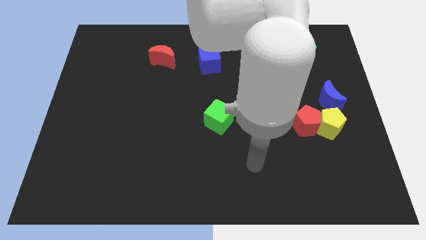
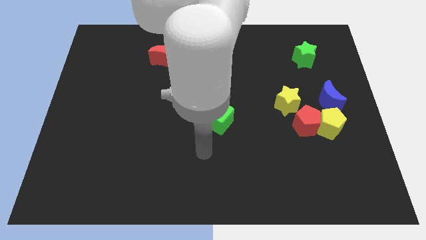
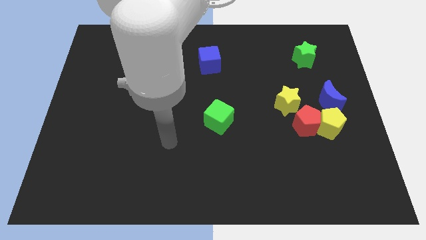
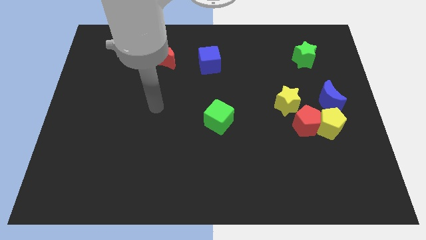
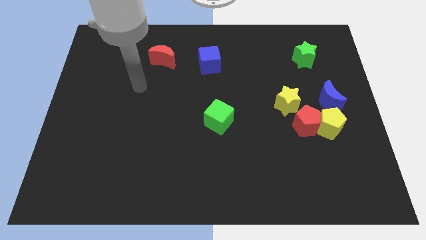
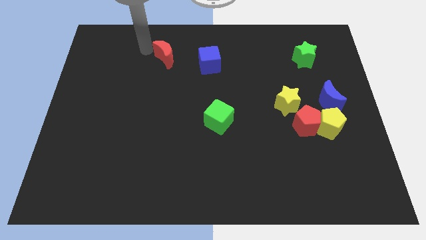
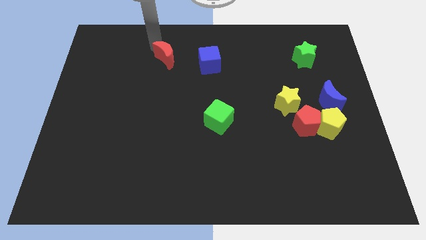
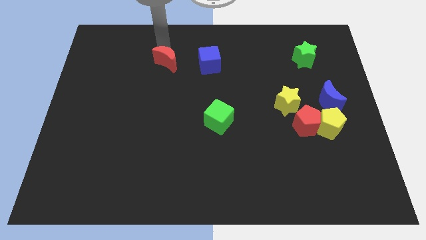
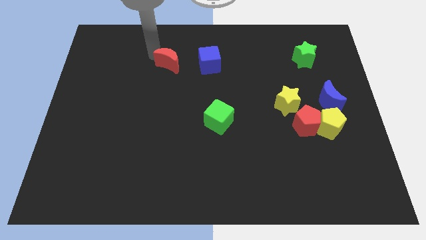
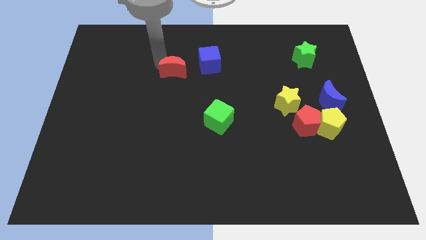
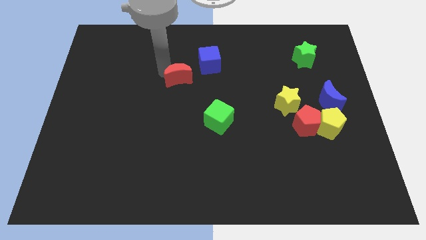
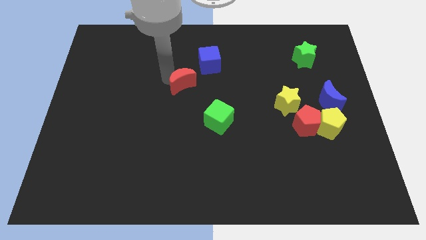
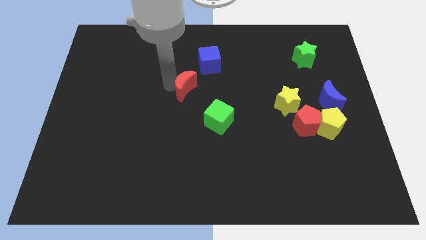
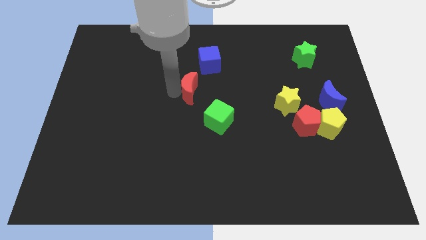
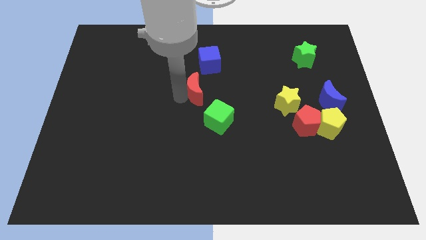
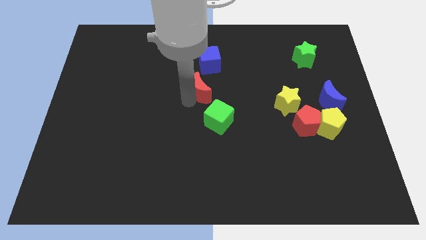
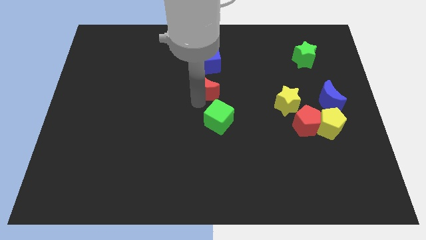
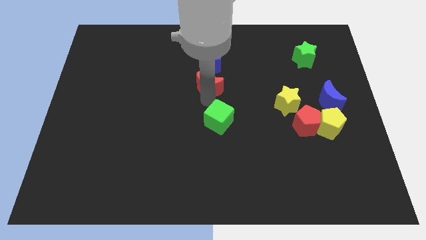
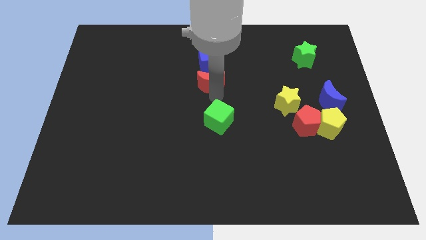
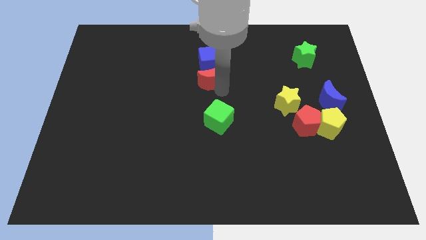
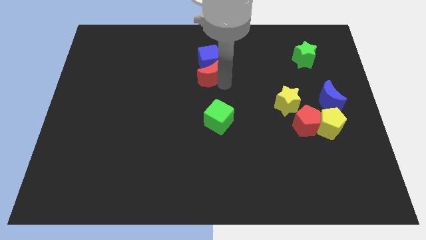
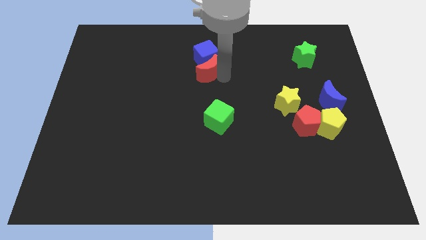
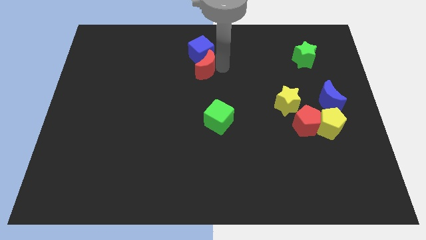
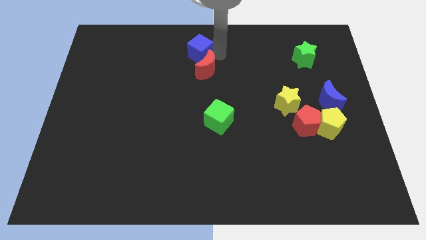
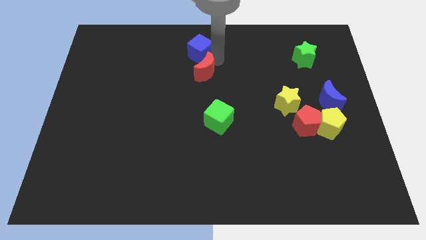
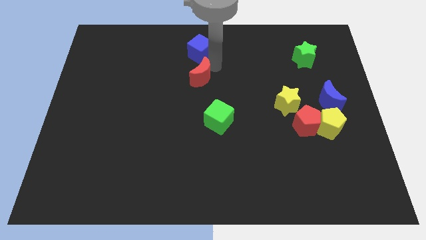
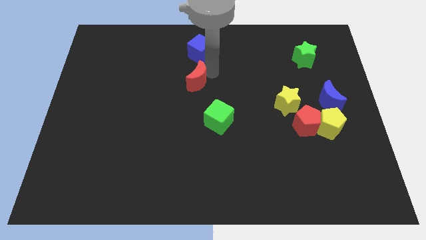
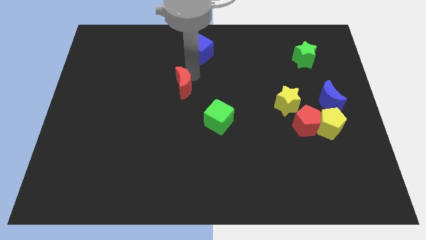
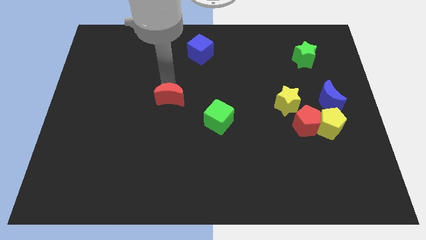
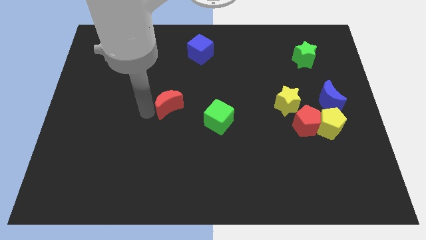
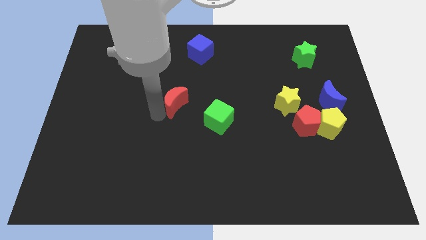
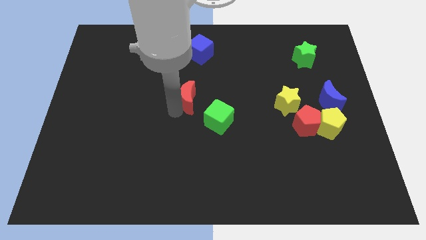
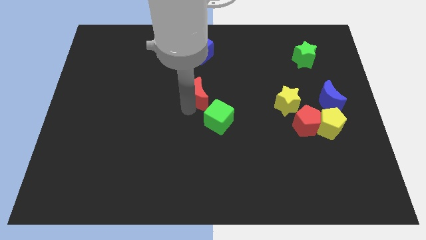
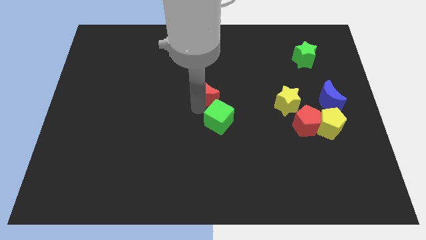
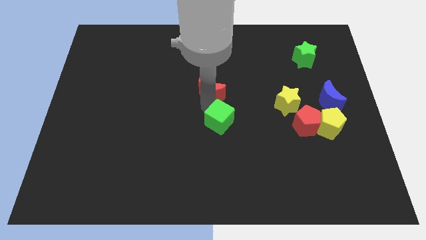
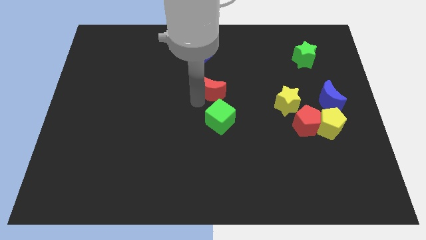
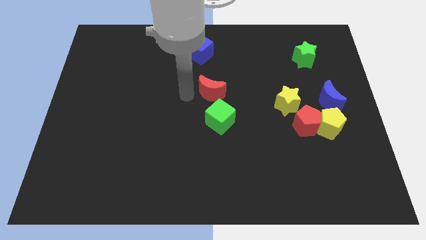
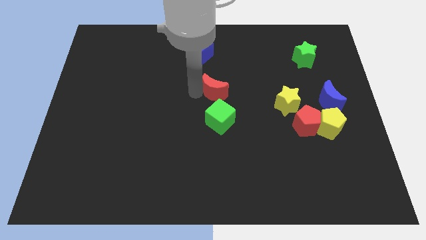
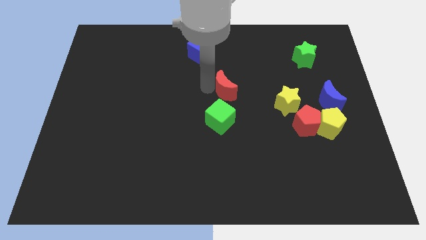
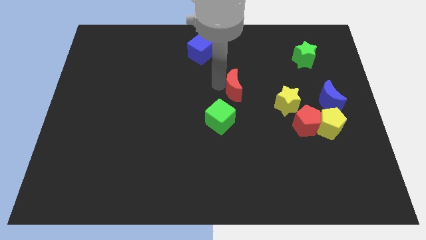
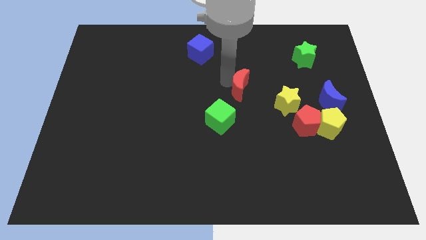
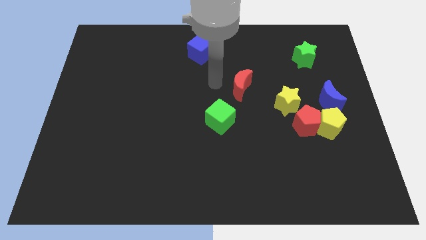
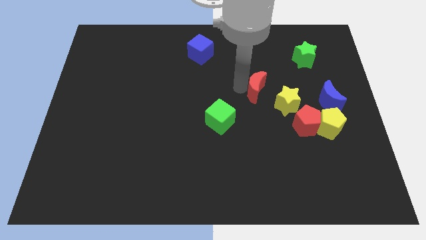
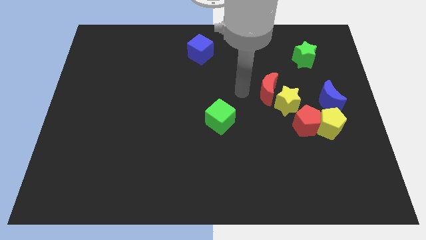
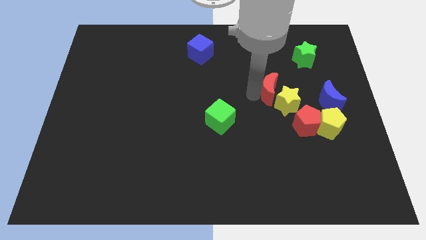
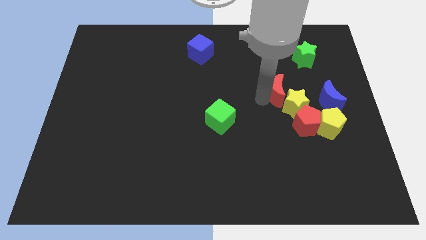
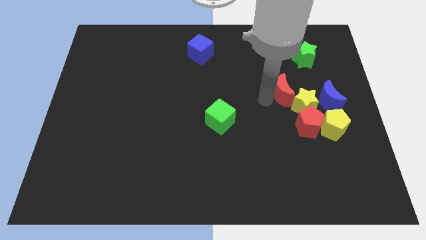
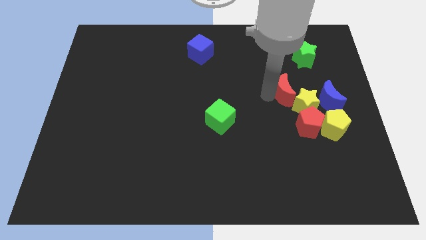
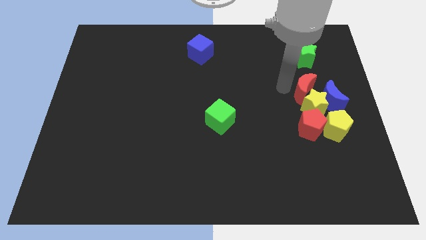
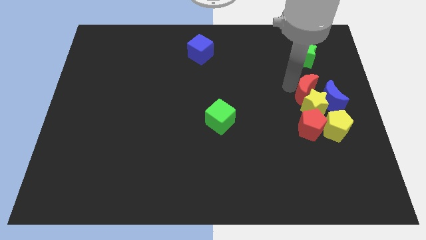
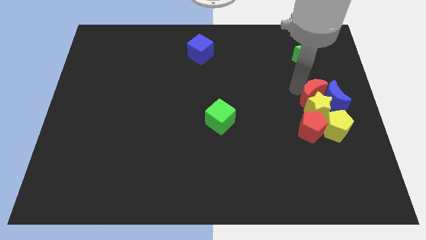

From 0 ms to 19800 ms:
push the red moon to the blue moon

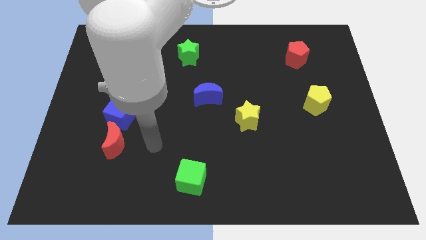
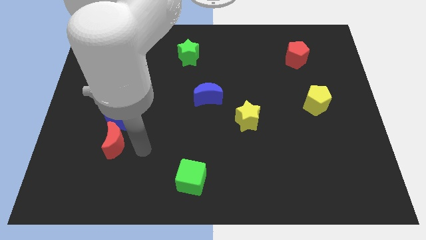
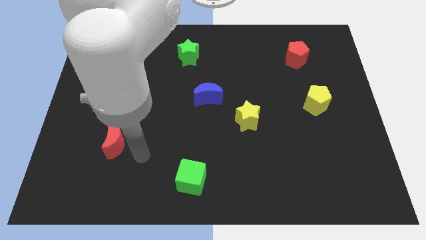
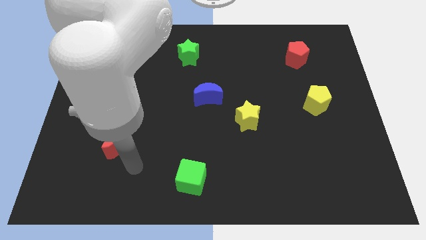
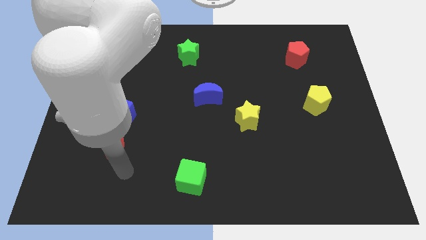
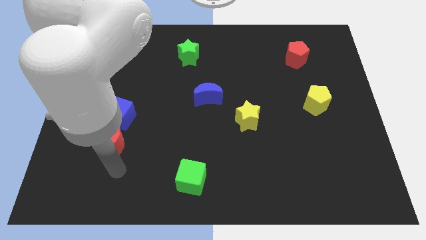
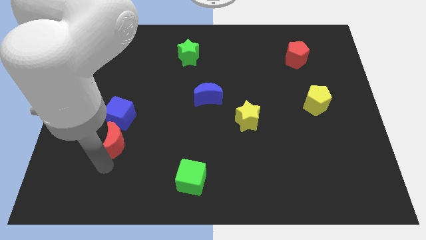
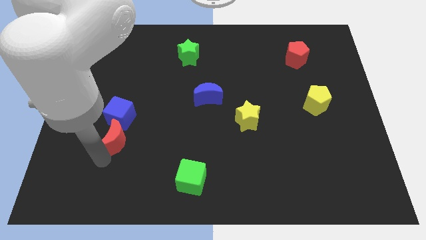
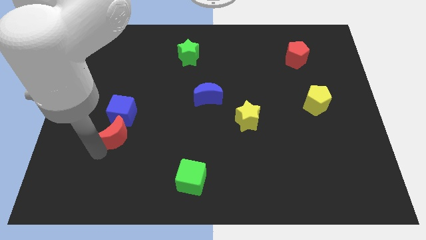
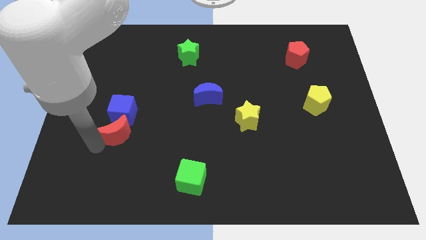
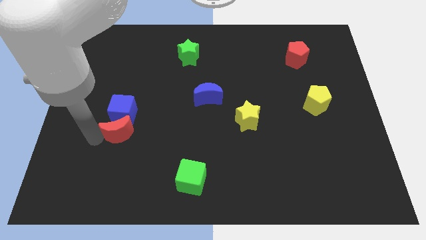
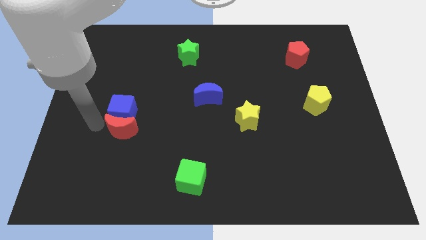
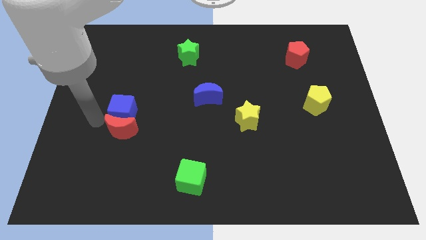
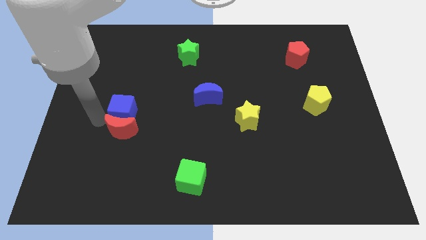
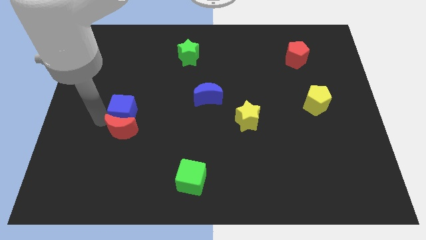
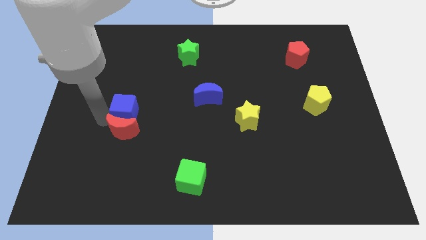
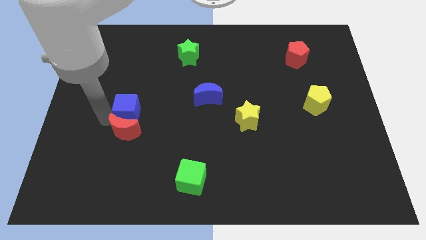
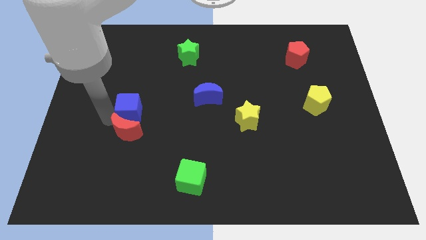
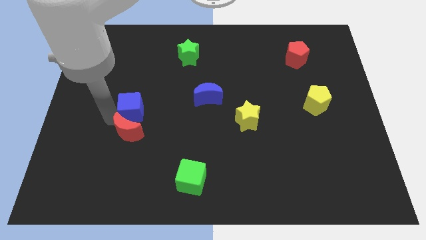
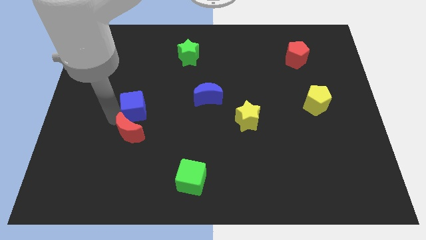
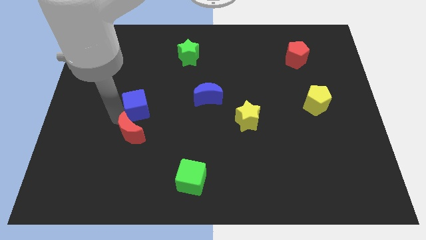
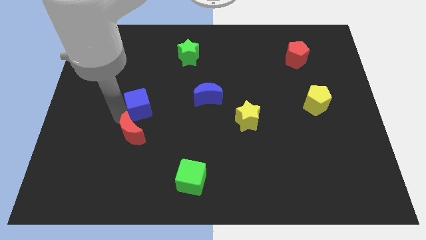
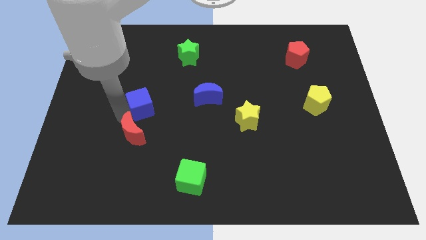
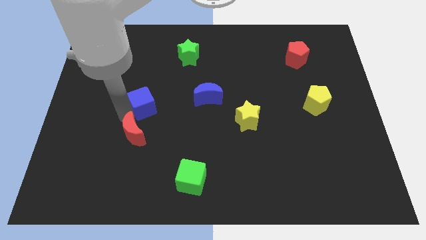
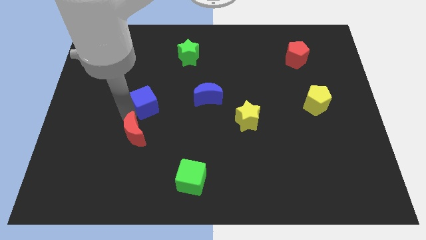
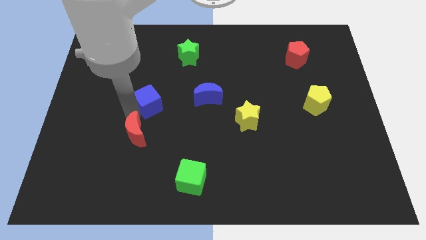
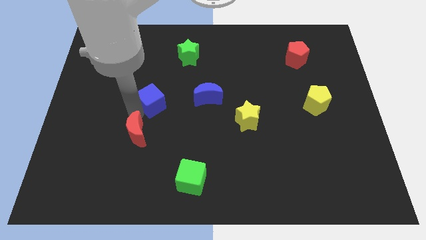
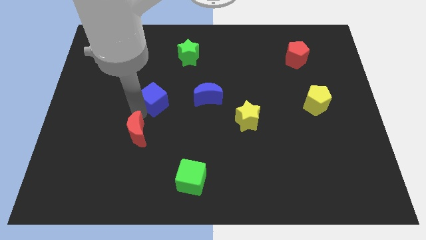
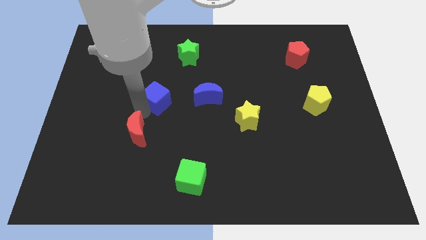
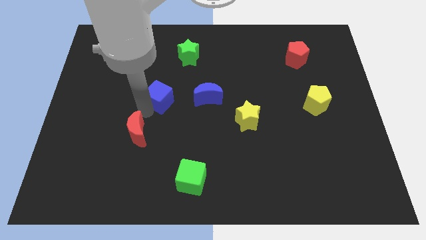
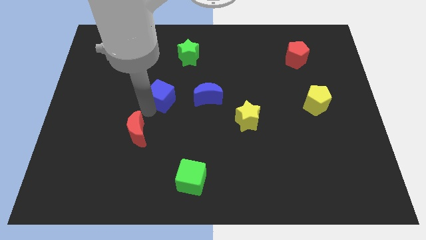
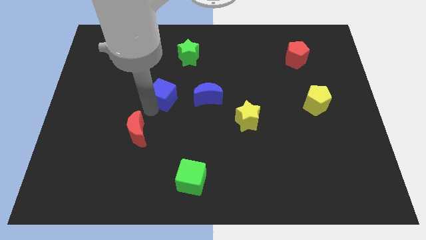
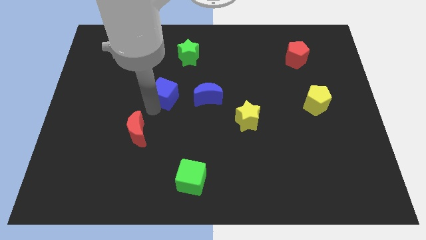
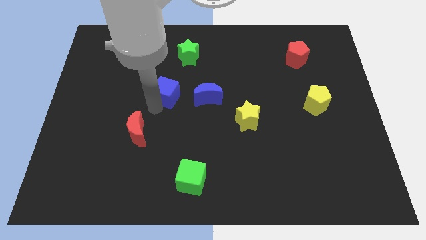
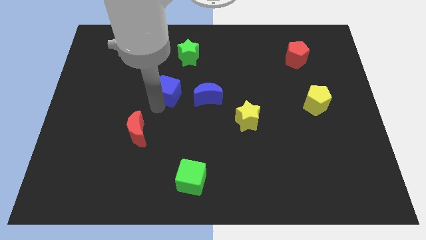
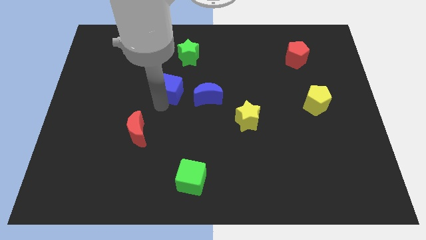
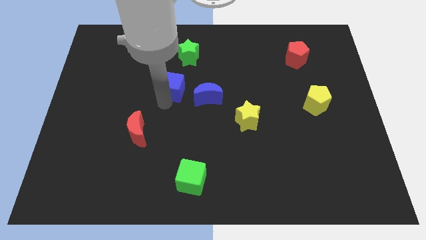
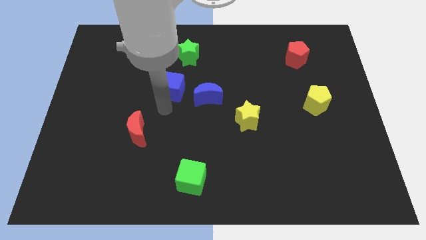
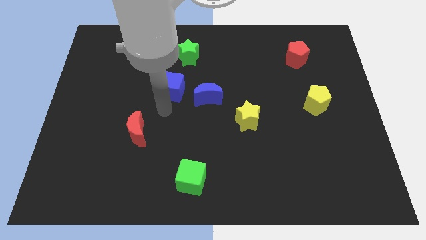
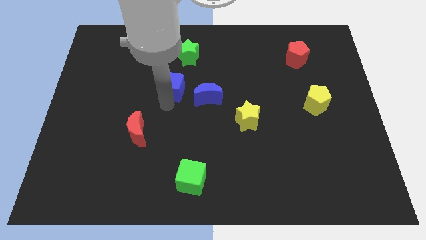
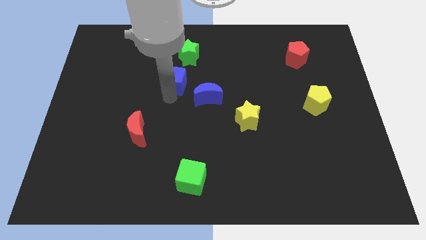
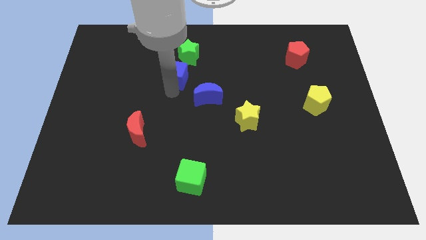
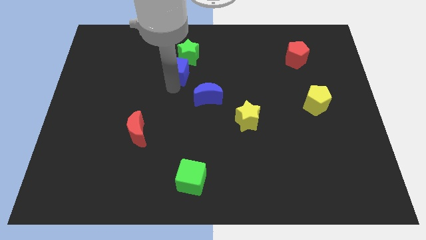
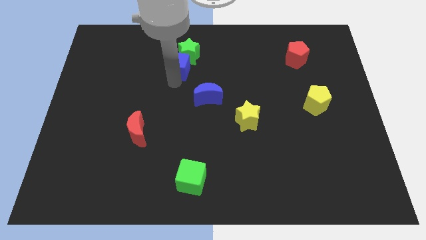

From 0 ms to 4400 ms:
slide the blue cube to the green star
